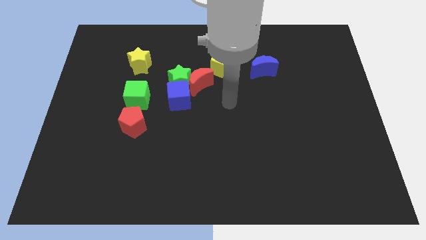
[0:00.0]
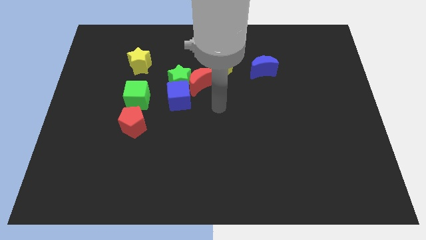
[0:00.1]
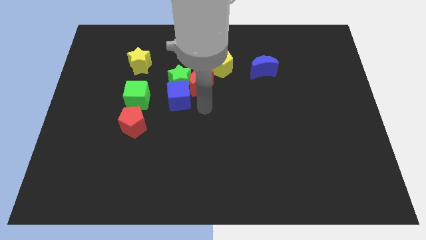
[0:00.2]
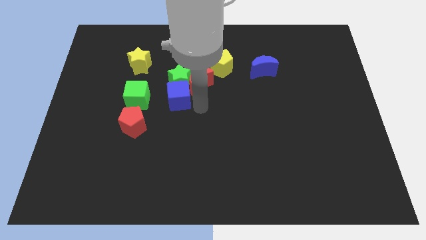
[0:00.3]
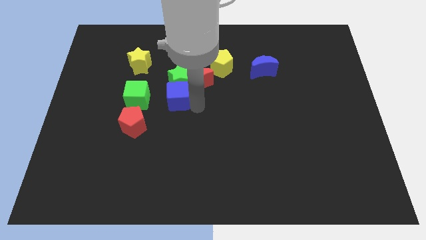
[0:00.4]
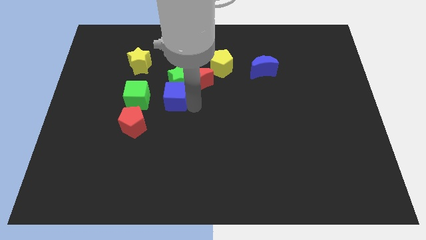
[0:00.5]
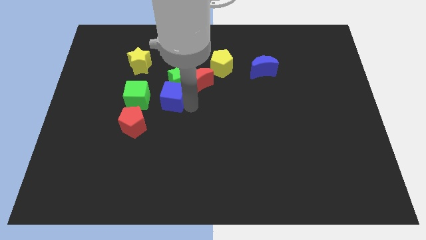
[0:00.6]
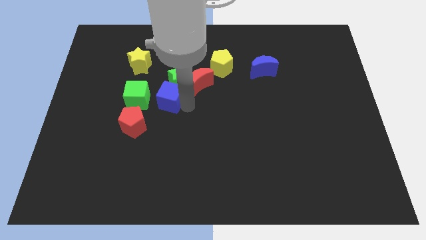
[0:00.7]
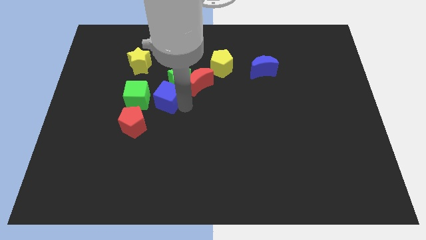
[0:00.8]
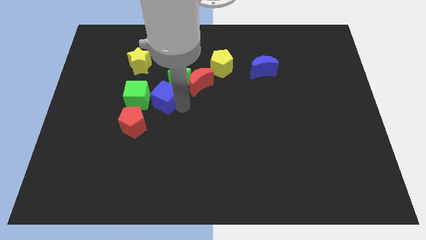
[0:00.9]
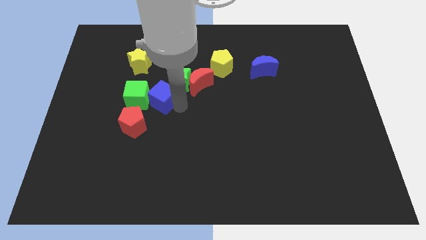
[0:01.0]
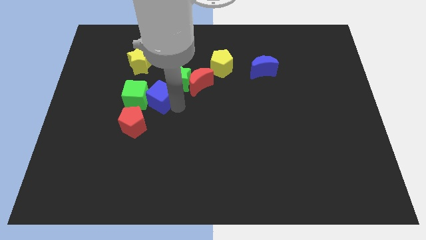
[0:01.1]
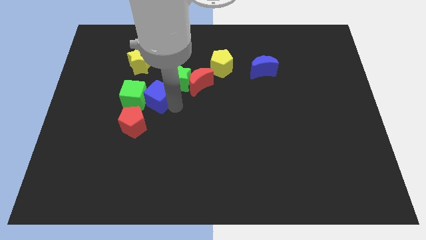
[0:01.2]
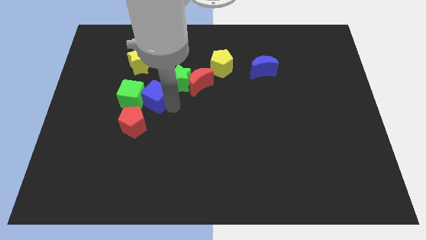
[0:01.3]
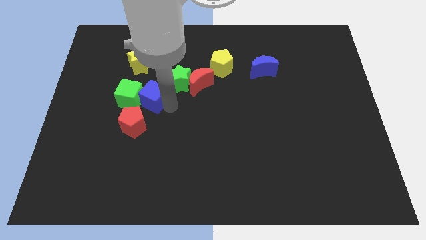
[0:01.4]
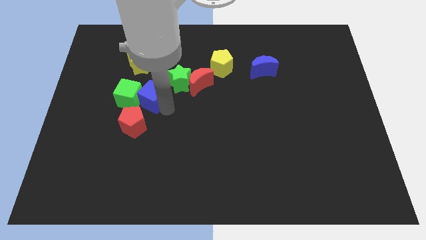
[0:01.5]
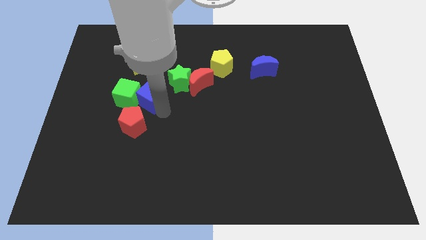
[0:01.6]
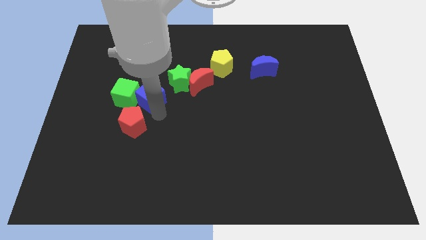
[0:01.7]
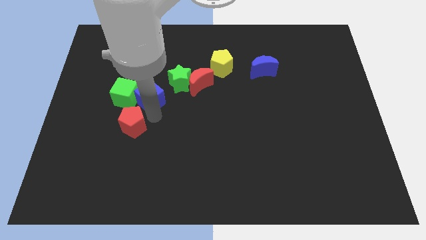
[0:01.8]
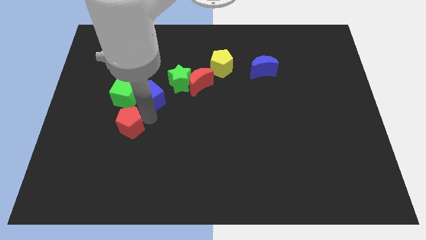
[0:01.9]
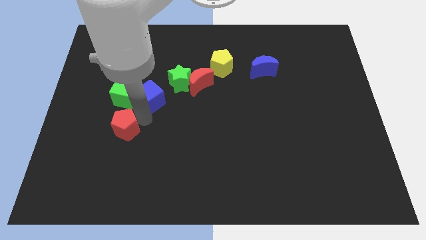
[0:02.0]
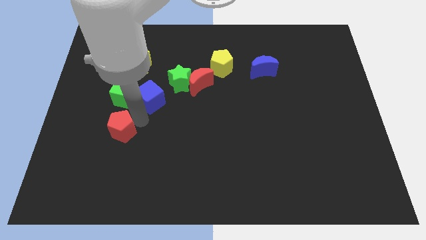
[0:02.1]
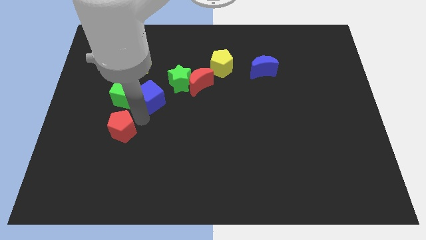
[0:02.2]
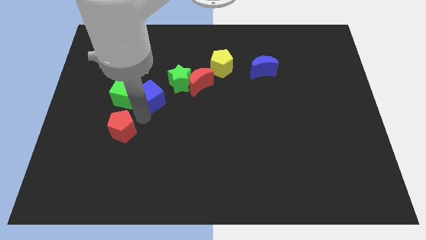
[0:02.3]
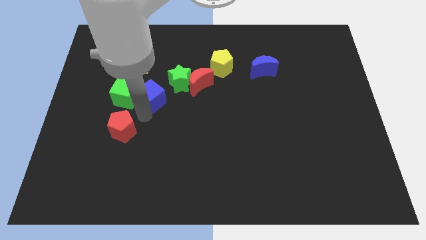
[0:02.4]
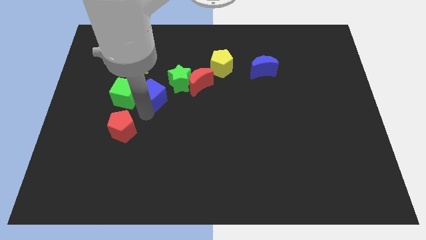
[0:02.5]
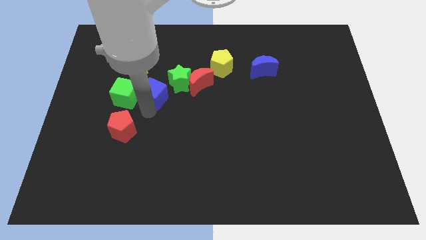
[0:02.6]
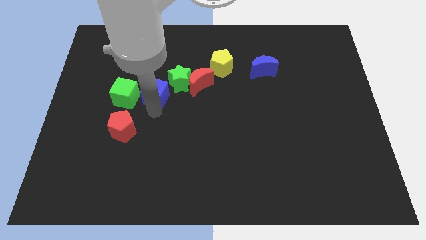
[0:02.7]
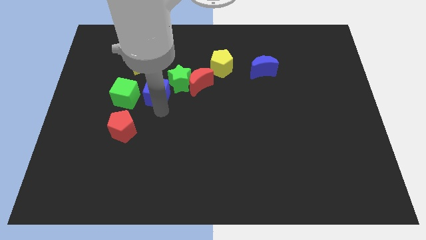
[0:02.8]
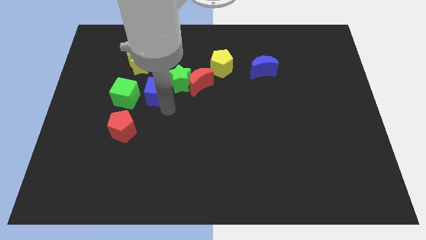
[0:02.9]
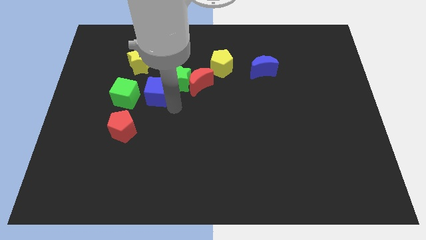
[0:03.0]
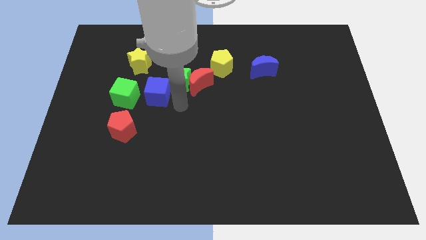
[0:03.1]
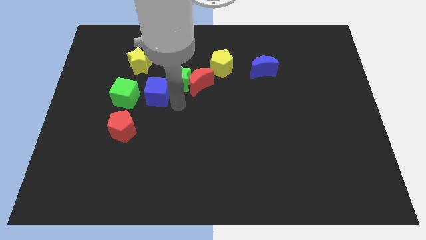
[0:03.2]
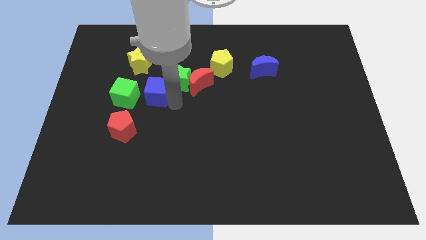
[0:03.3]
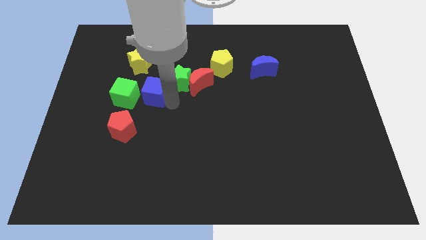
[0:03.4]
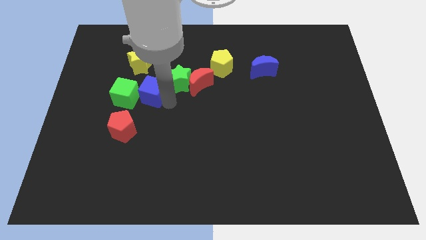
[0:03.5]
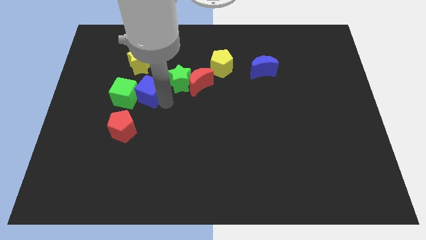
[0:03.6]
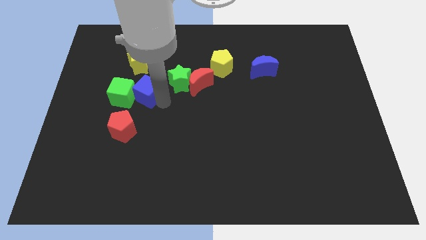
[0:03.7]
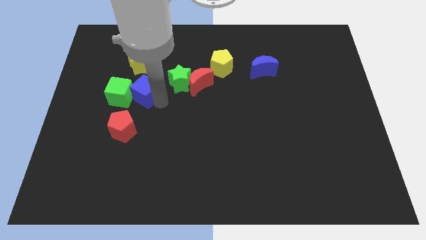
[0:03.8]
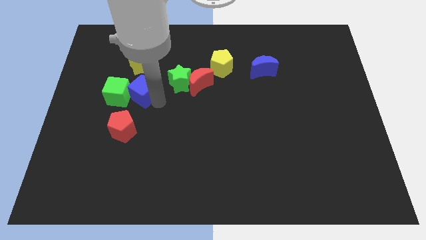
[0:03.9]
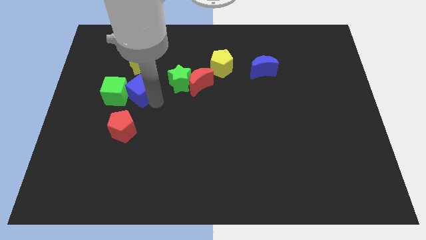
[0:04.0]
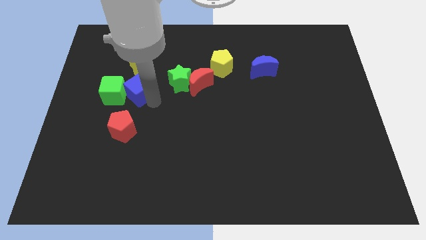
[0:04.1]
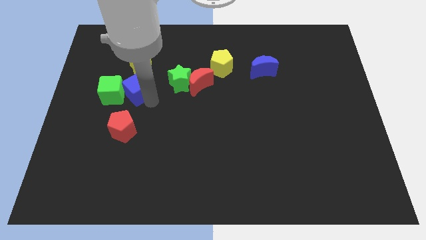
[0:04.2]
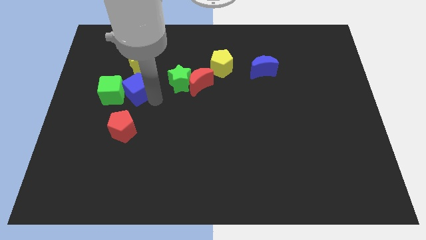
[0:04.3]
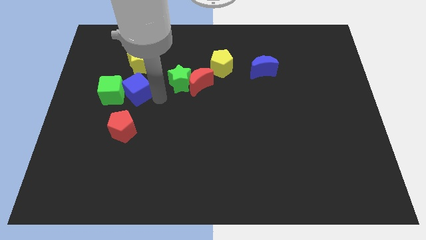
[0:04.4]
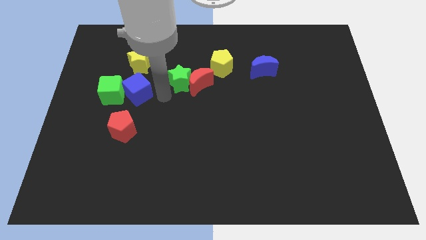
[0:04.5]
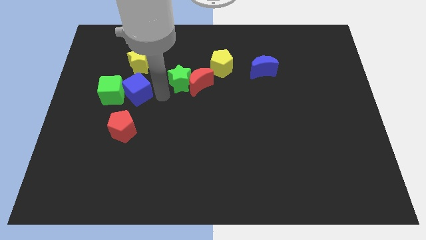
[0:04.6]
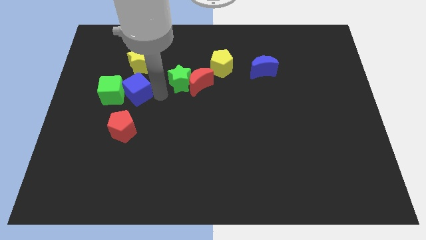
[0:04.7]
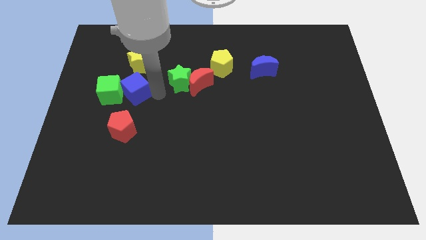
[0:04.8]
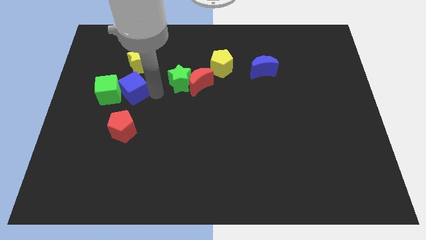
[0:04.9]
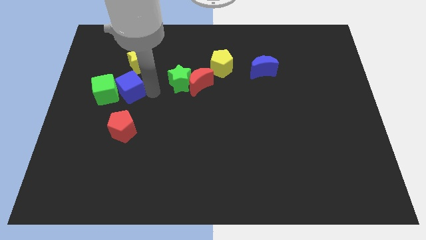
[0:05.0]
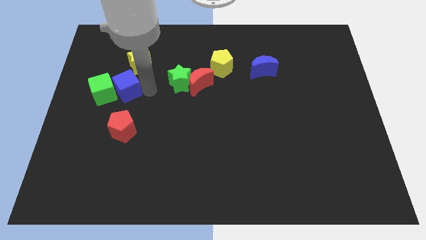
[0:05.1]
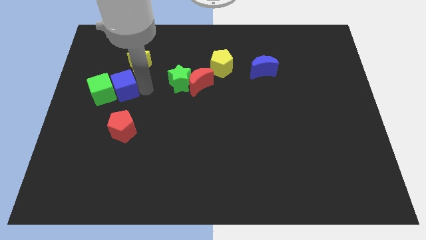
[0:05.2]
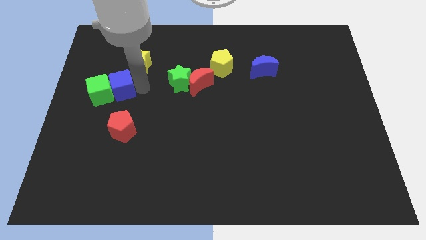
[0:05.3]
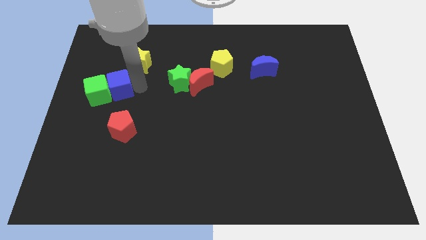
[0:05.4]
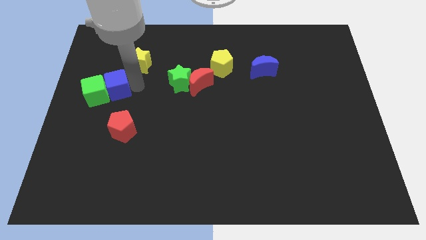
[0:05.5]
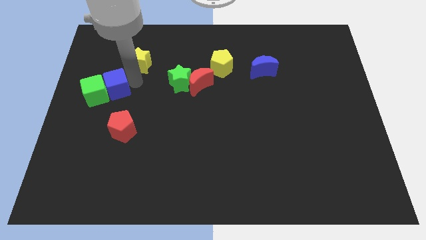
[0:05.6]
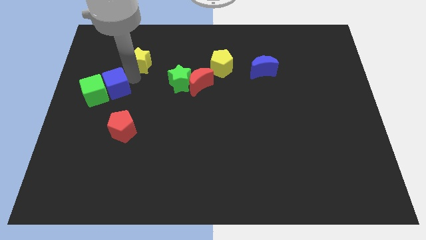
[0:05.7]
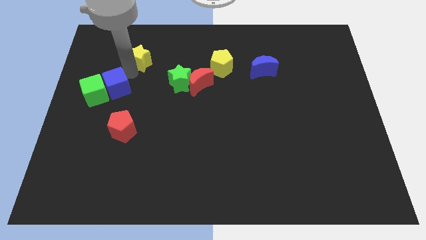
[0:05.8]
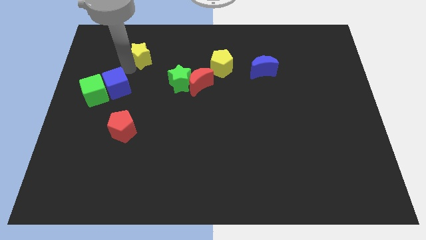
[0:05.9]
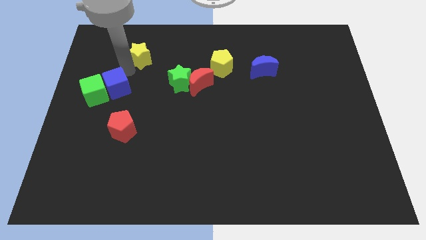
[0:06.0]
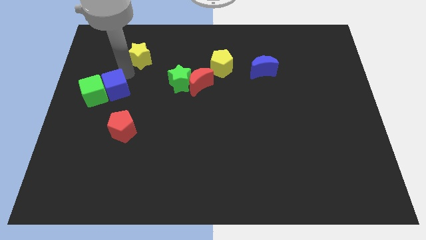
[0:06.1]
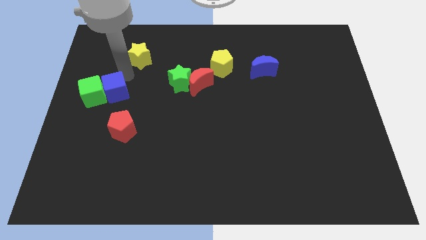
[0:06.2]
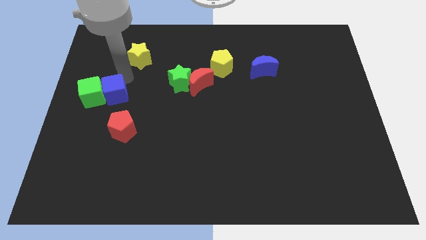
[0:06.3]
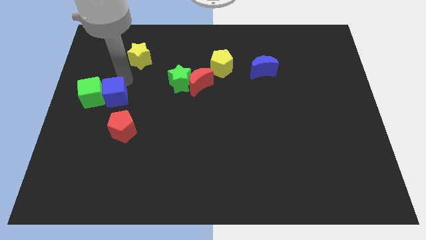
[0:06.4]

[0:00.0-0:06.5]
move the blue cube to the top left side of the red pentagon

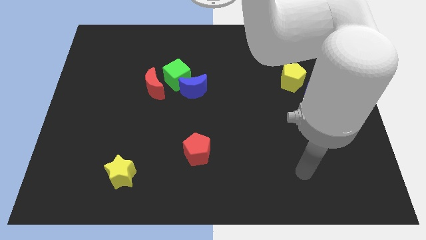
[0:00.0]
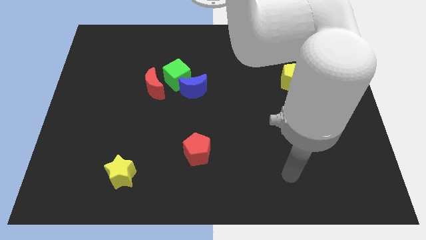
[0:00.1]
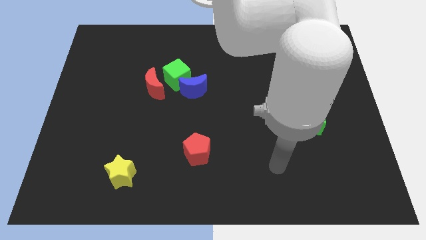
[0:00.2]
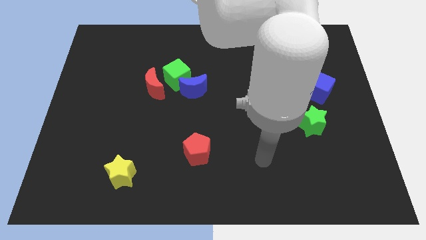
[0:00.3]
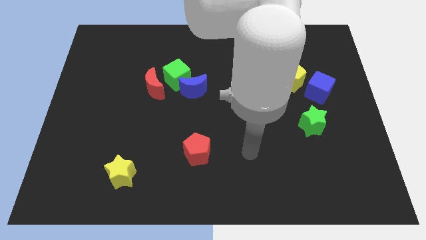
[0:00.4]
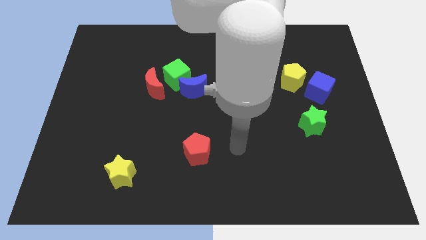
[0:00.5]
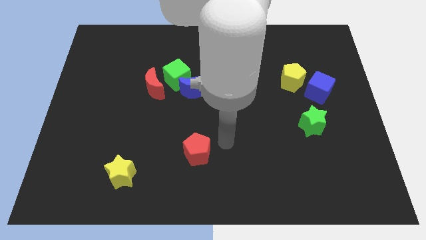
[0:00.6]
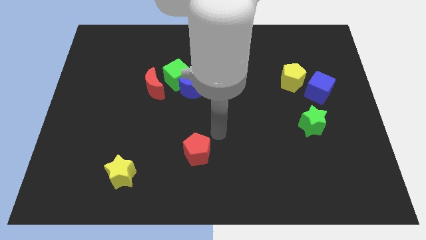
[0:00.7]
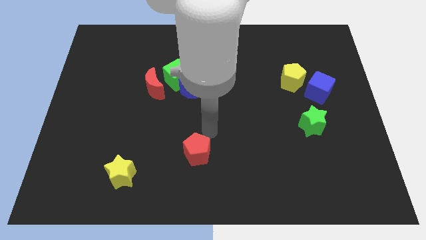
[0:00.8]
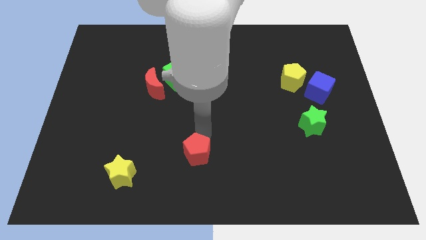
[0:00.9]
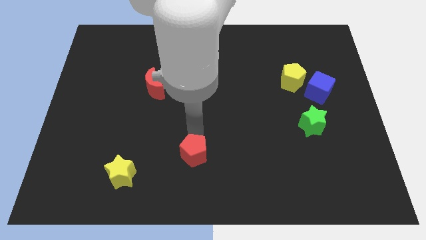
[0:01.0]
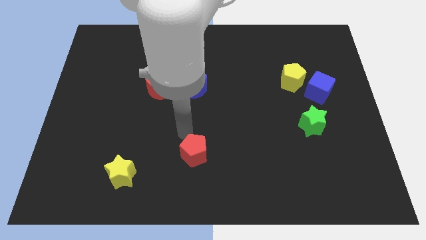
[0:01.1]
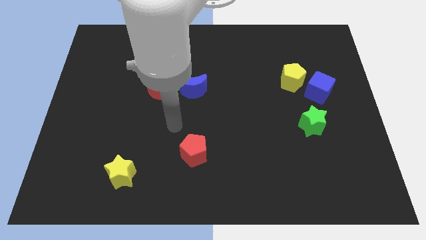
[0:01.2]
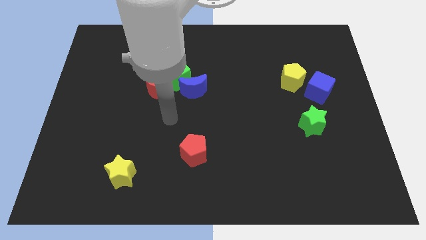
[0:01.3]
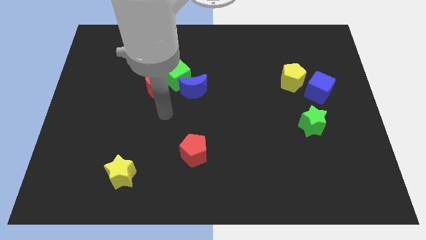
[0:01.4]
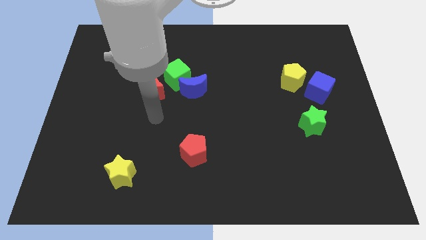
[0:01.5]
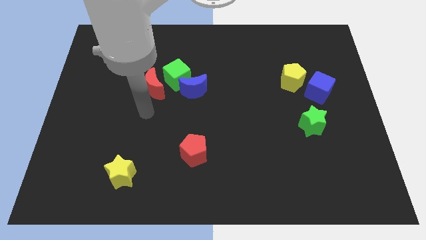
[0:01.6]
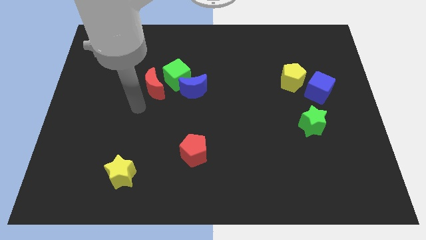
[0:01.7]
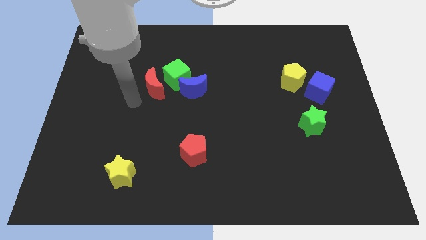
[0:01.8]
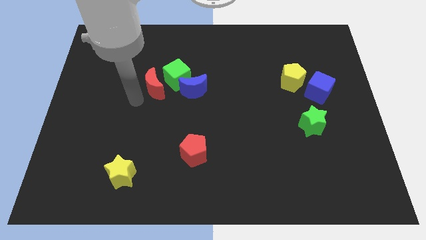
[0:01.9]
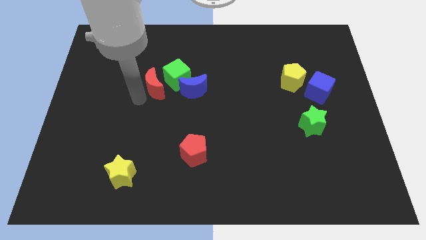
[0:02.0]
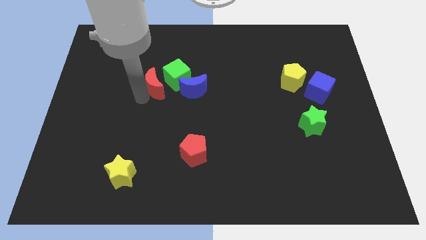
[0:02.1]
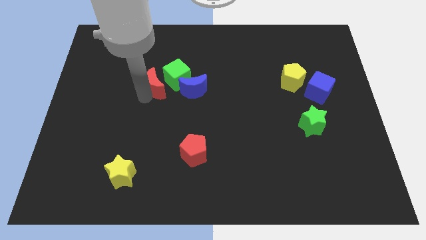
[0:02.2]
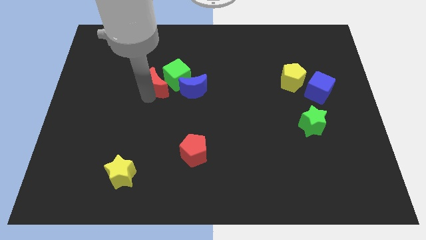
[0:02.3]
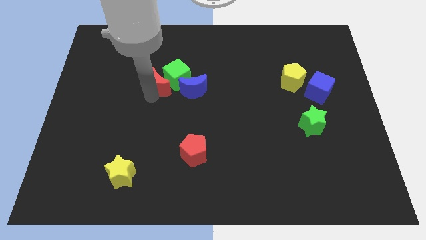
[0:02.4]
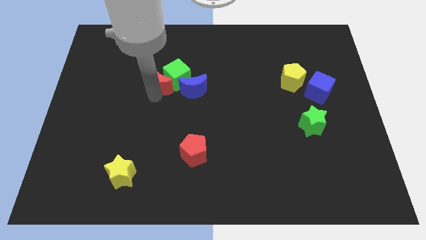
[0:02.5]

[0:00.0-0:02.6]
move the red moon to the top left of the blue moon
